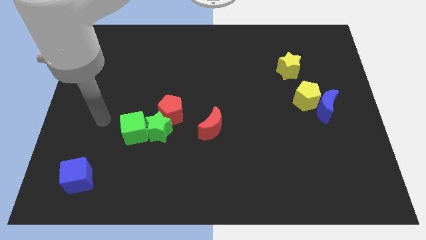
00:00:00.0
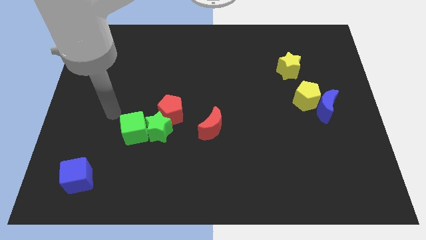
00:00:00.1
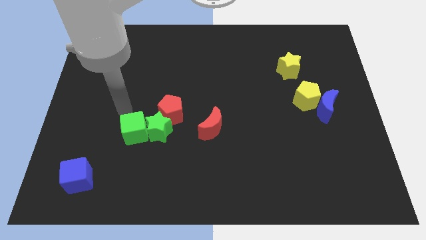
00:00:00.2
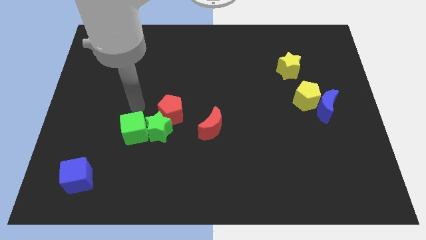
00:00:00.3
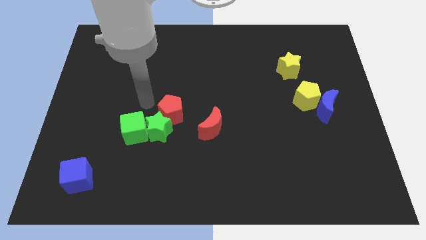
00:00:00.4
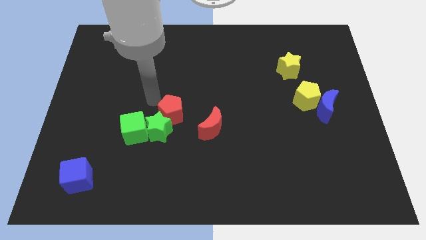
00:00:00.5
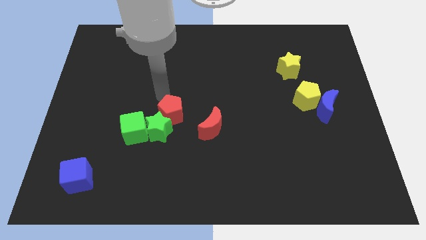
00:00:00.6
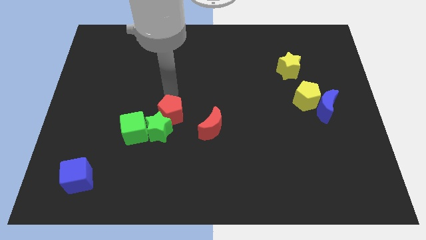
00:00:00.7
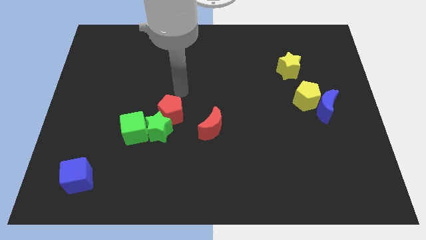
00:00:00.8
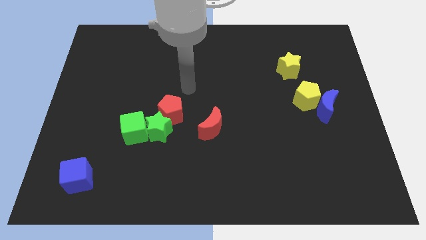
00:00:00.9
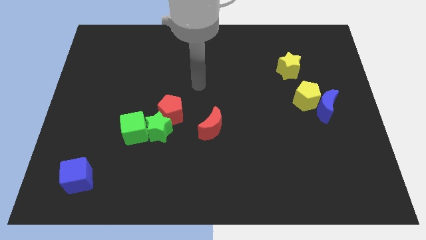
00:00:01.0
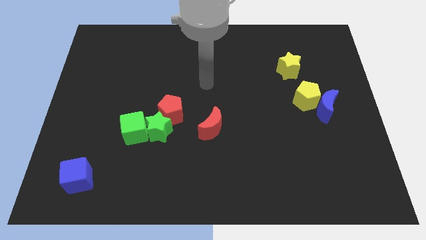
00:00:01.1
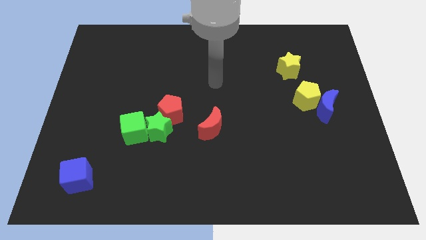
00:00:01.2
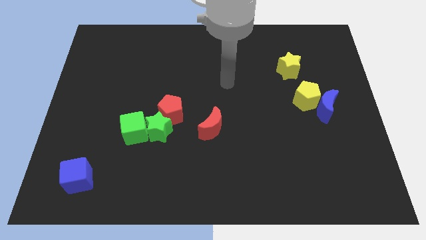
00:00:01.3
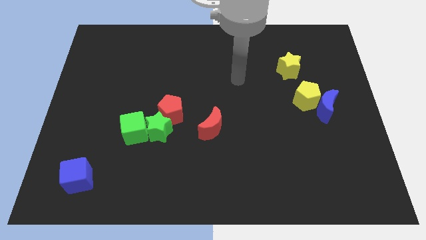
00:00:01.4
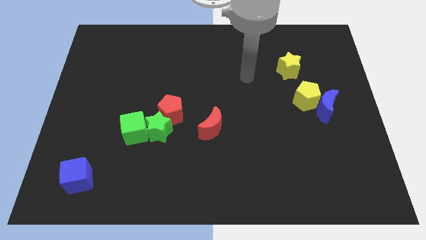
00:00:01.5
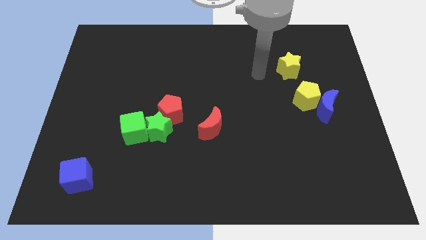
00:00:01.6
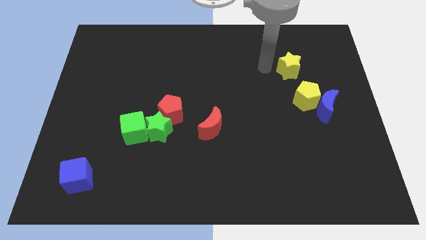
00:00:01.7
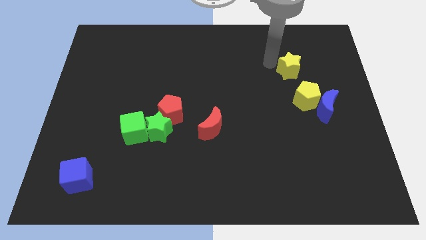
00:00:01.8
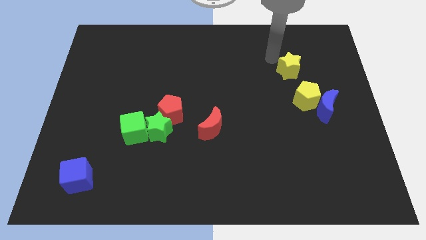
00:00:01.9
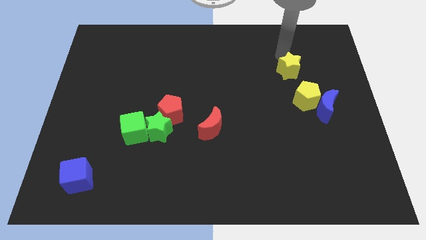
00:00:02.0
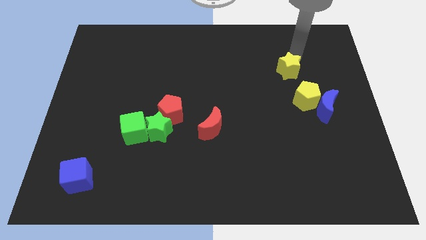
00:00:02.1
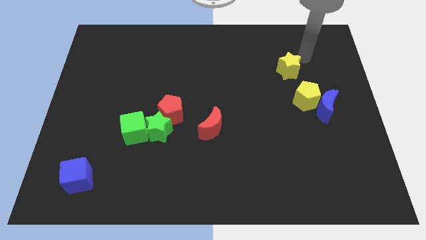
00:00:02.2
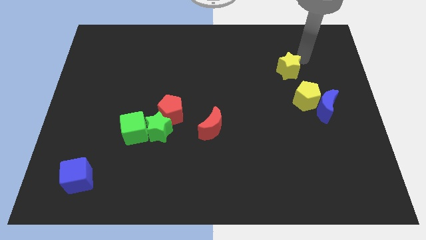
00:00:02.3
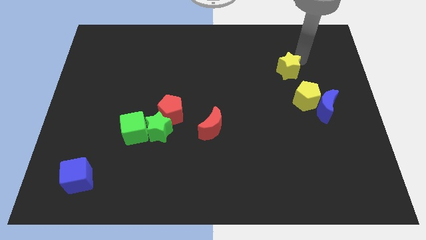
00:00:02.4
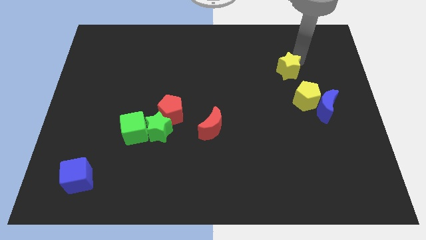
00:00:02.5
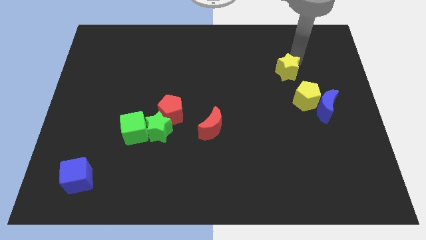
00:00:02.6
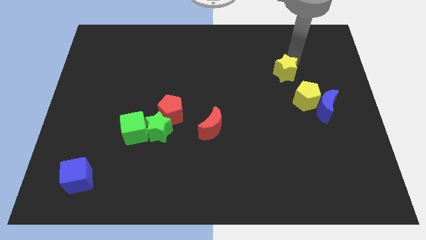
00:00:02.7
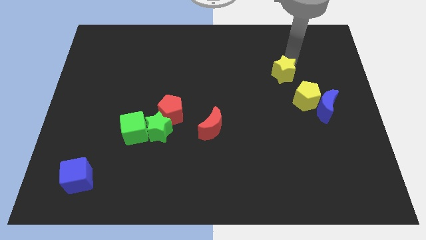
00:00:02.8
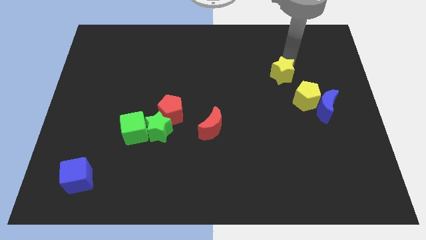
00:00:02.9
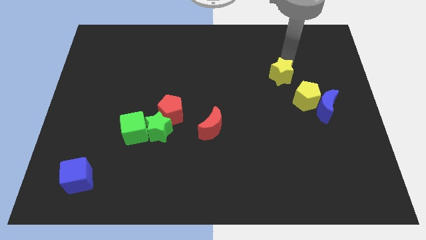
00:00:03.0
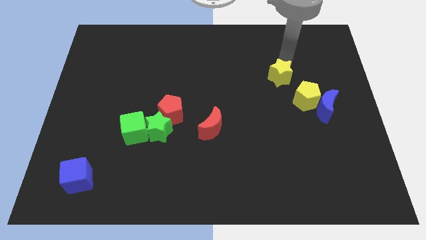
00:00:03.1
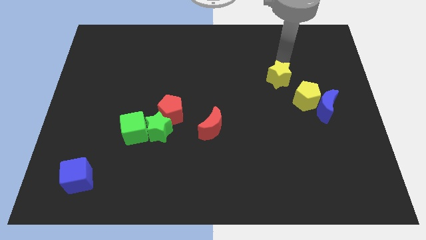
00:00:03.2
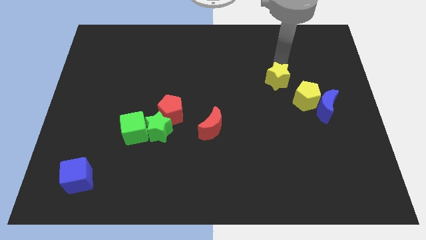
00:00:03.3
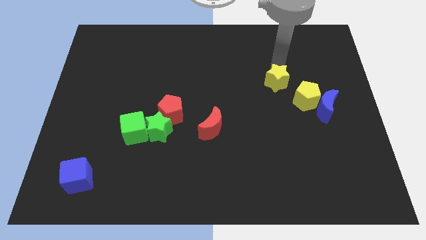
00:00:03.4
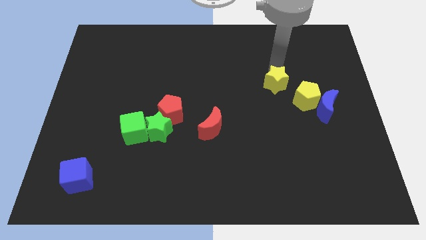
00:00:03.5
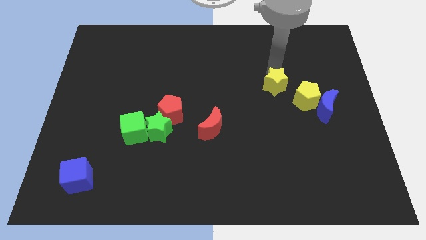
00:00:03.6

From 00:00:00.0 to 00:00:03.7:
slide the yellow star diagonally downwards and left a bit

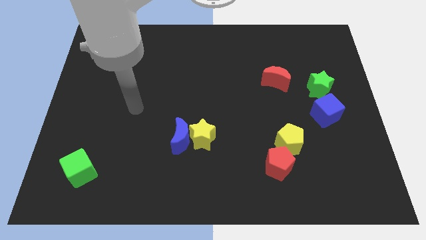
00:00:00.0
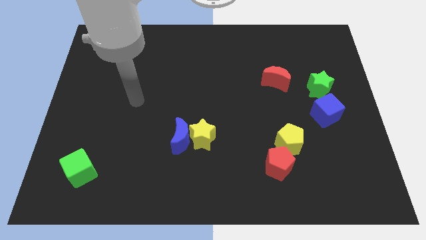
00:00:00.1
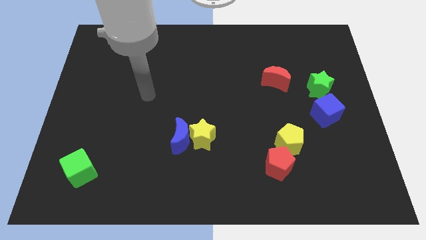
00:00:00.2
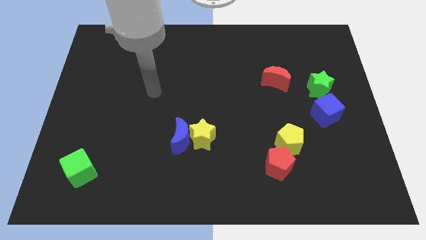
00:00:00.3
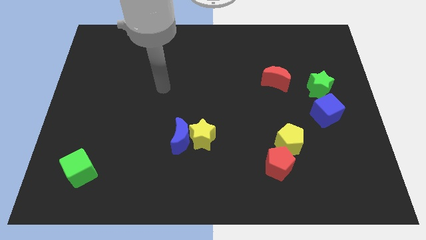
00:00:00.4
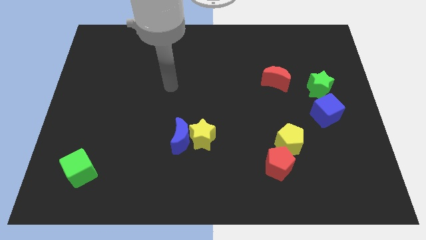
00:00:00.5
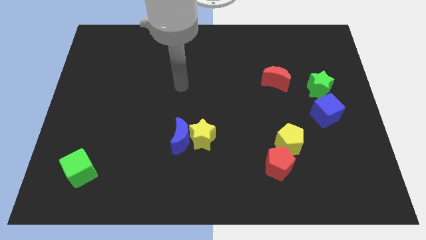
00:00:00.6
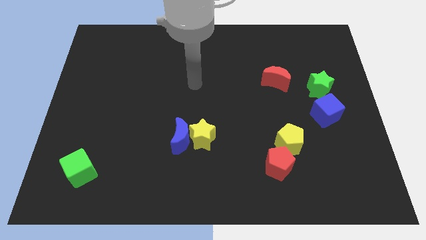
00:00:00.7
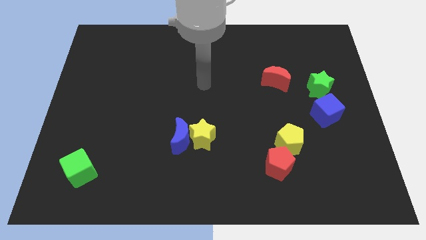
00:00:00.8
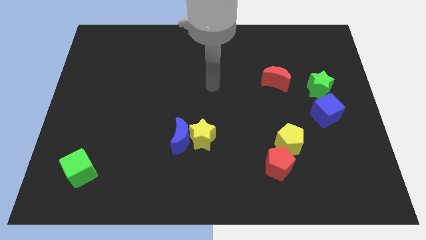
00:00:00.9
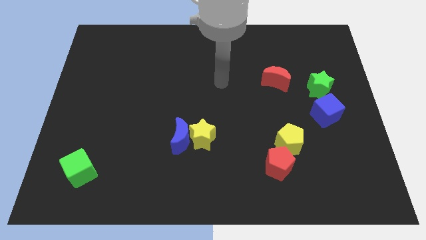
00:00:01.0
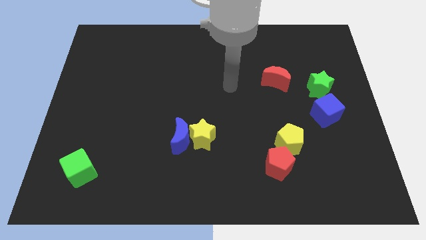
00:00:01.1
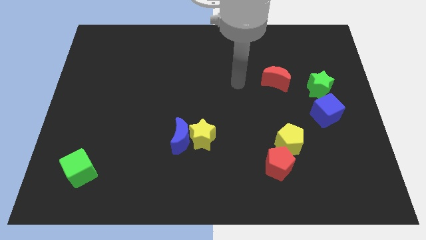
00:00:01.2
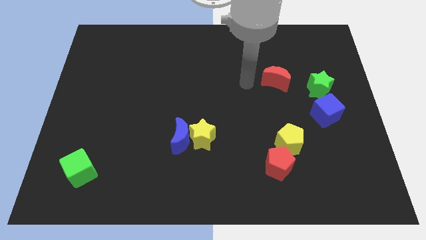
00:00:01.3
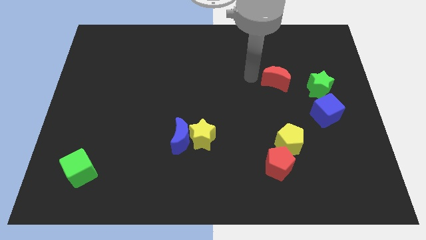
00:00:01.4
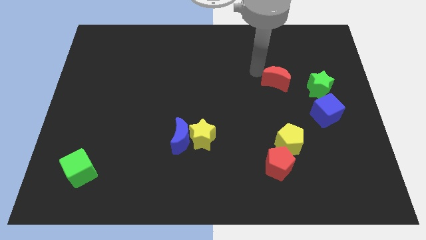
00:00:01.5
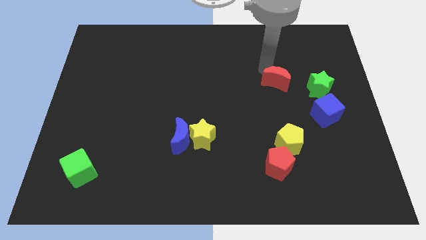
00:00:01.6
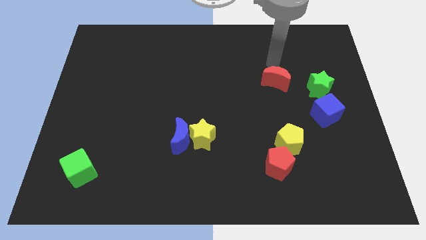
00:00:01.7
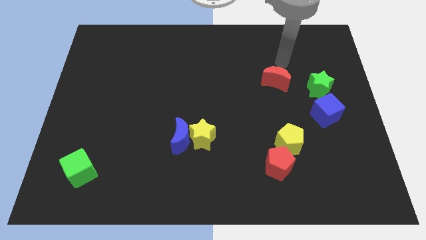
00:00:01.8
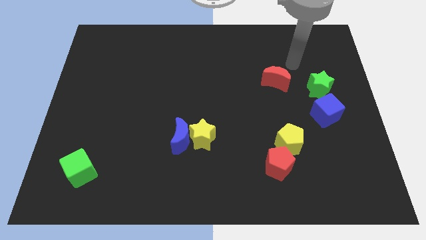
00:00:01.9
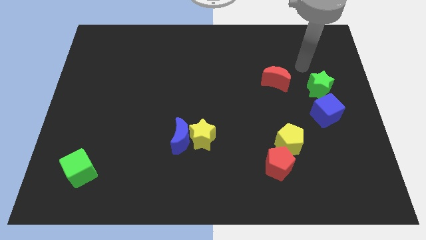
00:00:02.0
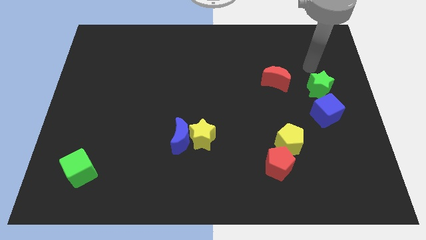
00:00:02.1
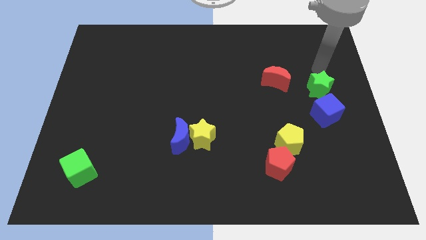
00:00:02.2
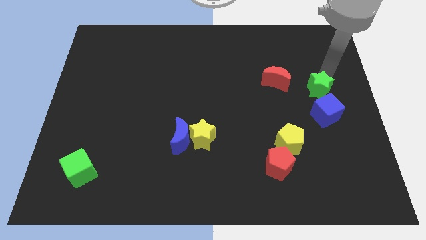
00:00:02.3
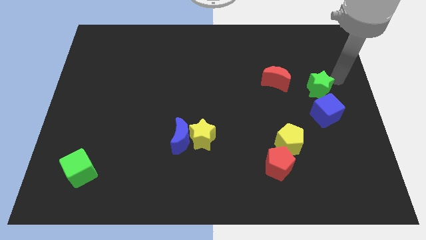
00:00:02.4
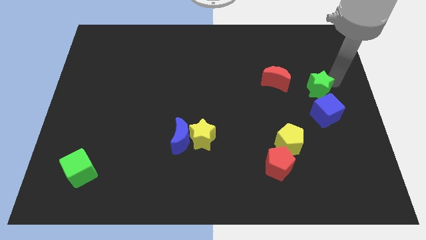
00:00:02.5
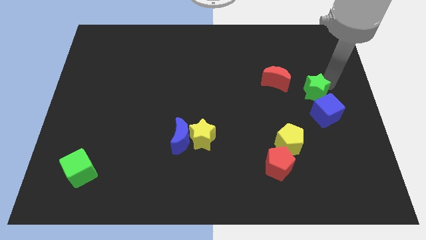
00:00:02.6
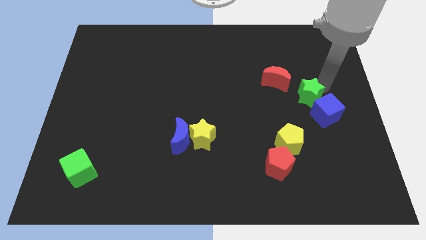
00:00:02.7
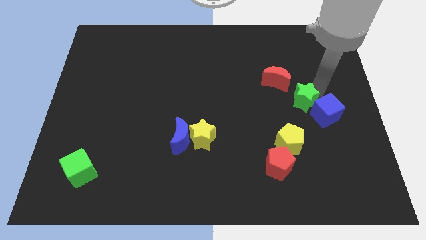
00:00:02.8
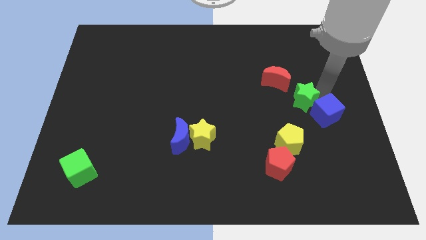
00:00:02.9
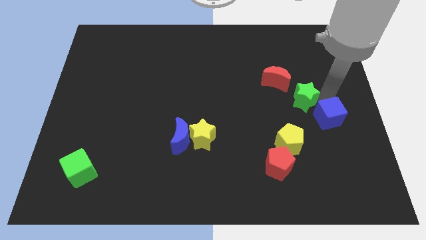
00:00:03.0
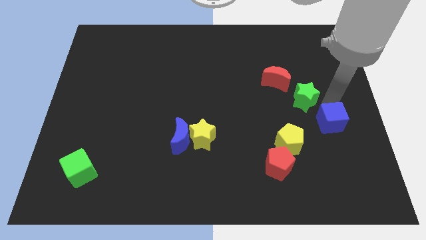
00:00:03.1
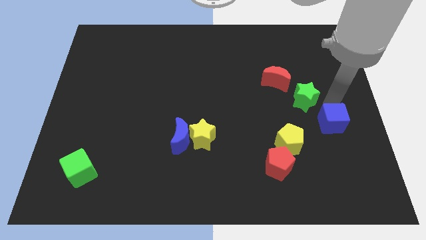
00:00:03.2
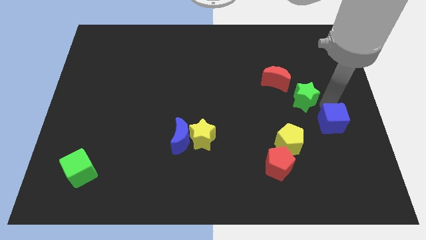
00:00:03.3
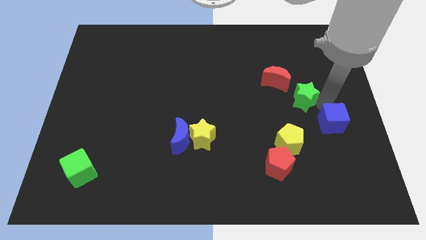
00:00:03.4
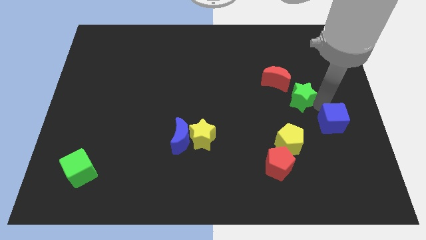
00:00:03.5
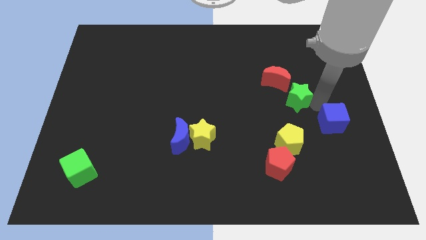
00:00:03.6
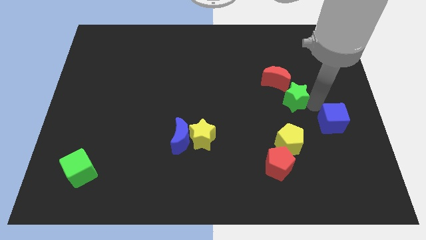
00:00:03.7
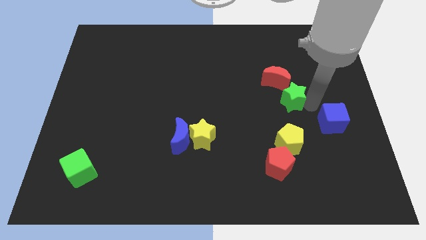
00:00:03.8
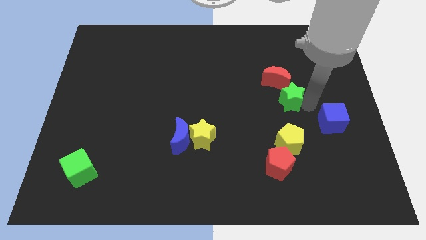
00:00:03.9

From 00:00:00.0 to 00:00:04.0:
slide the green star a bit to the left

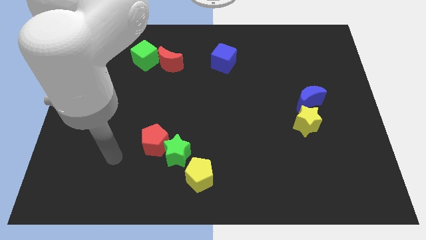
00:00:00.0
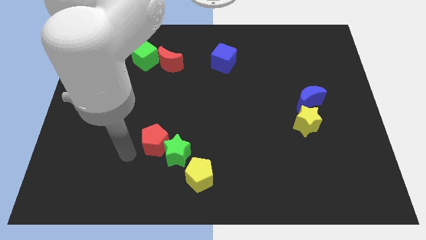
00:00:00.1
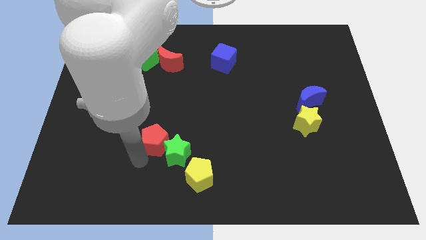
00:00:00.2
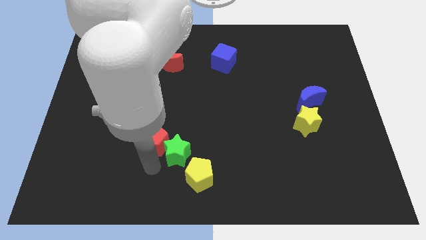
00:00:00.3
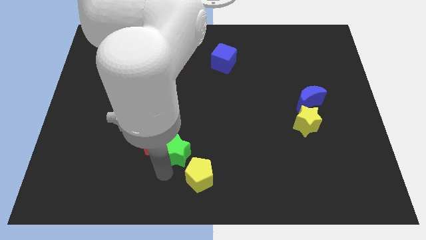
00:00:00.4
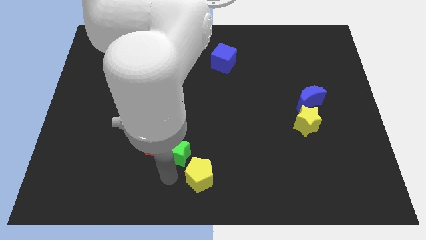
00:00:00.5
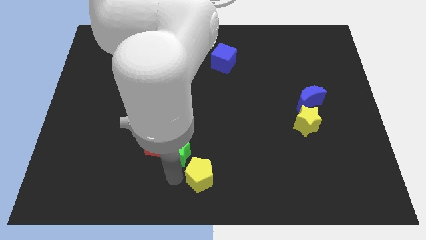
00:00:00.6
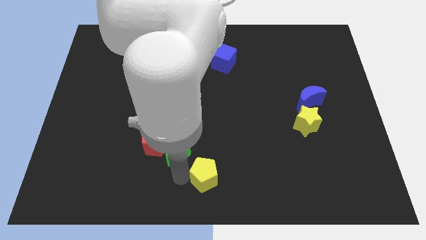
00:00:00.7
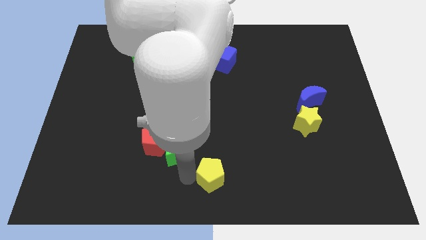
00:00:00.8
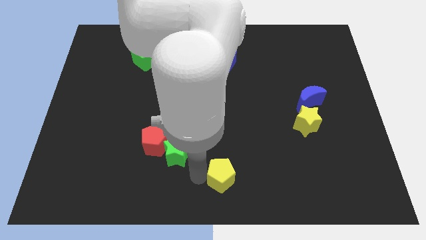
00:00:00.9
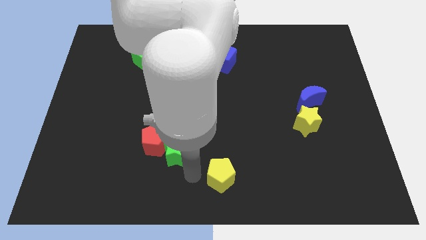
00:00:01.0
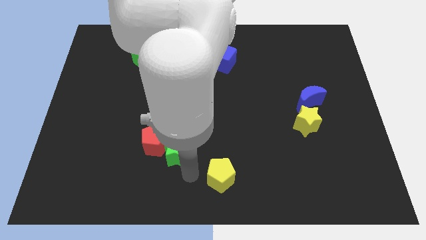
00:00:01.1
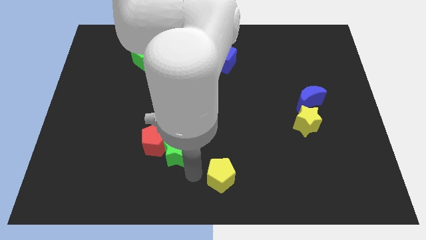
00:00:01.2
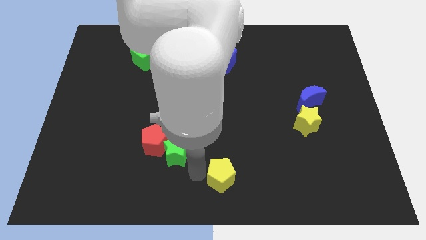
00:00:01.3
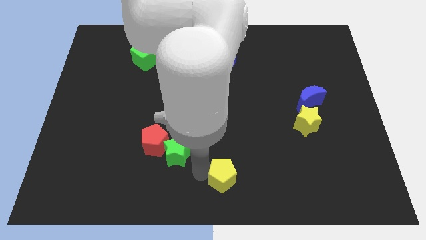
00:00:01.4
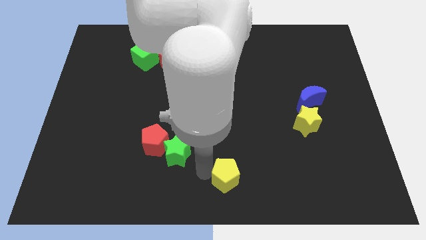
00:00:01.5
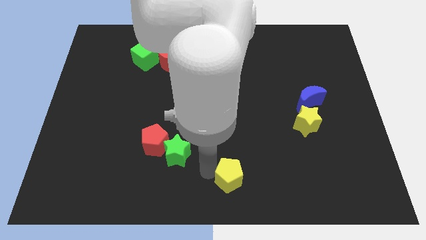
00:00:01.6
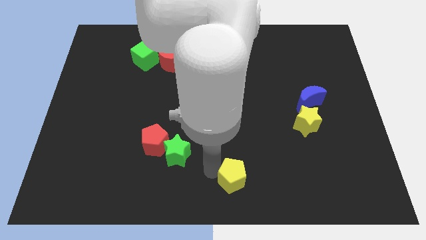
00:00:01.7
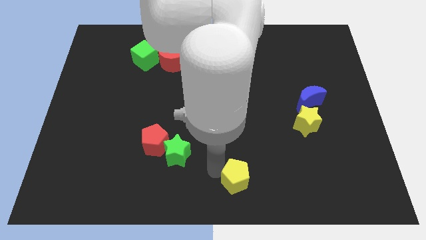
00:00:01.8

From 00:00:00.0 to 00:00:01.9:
slightly move the yellow pentagon to the right
